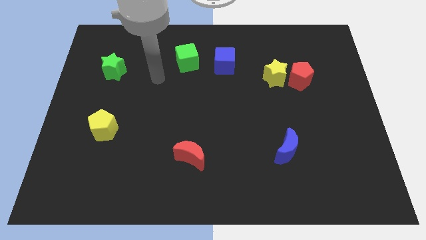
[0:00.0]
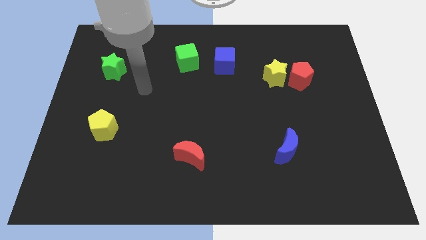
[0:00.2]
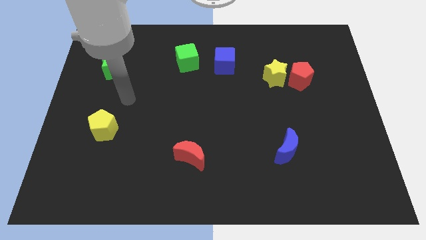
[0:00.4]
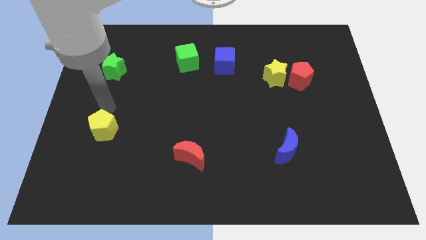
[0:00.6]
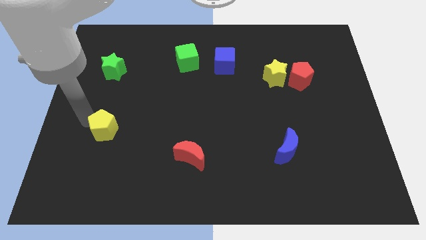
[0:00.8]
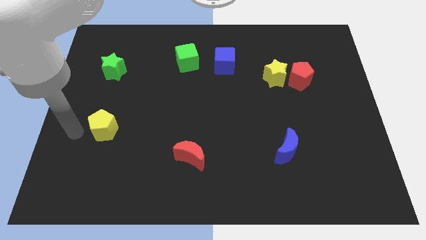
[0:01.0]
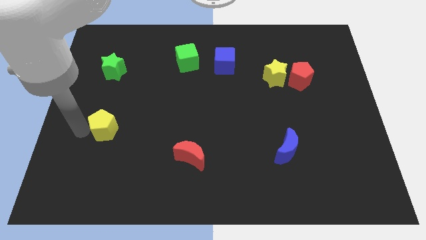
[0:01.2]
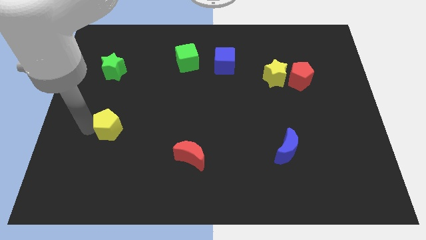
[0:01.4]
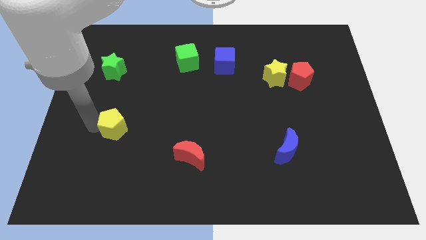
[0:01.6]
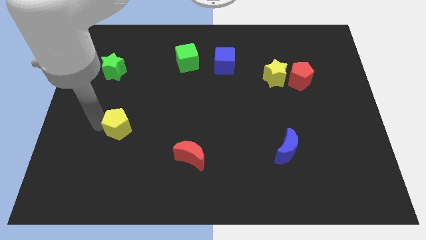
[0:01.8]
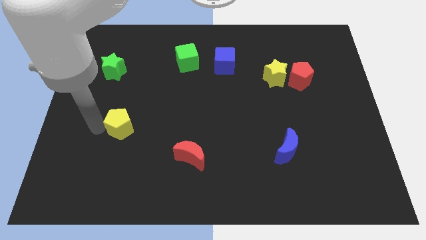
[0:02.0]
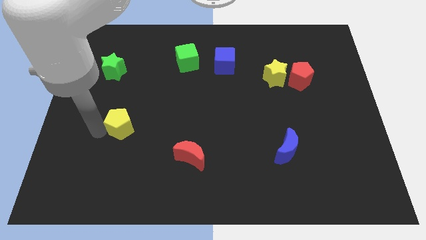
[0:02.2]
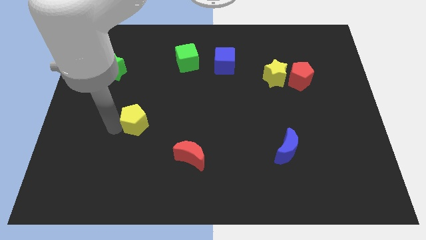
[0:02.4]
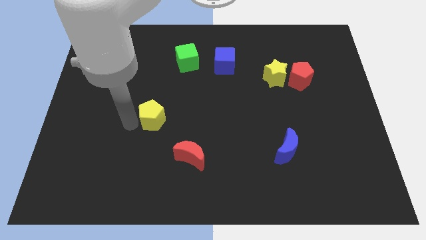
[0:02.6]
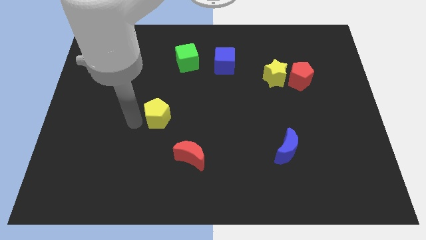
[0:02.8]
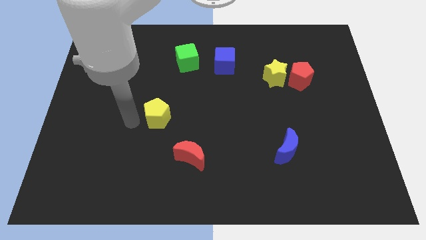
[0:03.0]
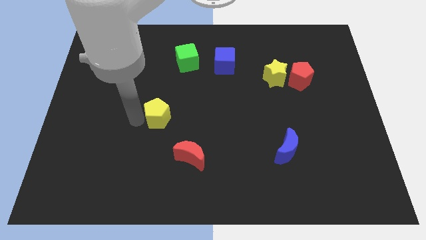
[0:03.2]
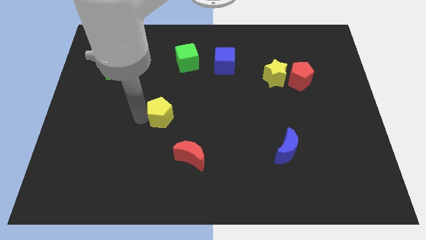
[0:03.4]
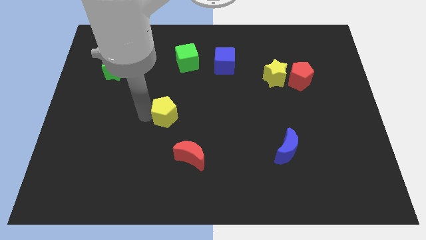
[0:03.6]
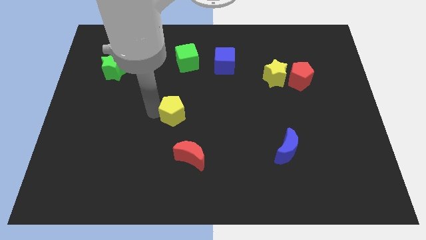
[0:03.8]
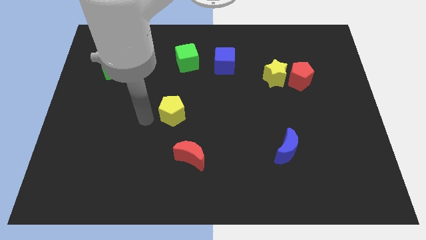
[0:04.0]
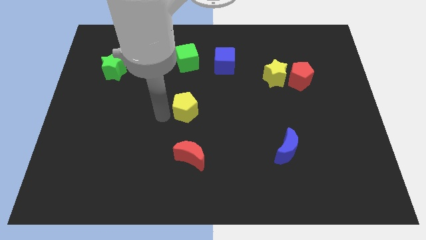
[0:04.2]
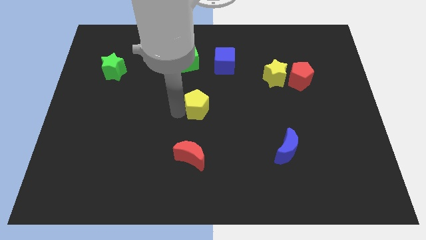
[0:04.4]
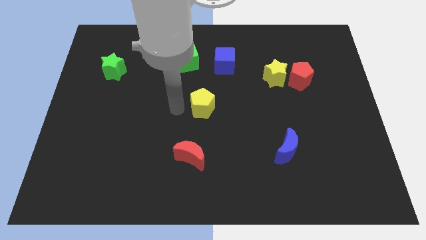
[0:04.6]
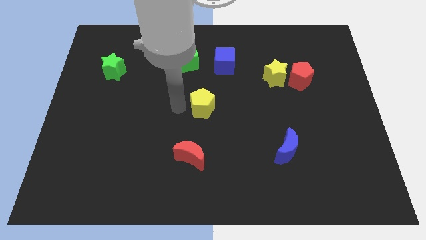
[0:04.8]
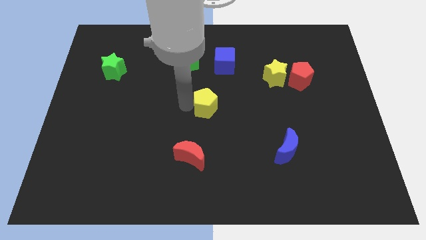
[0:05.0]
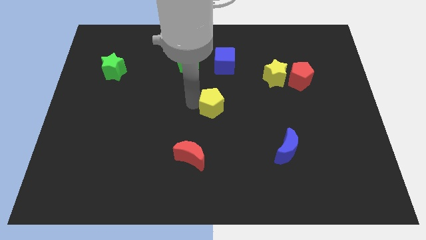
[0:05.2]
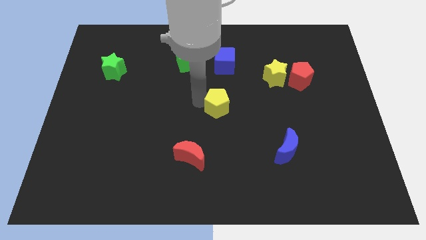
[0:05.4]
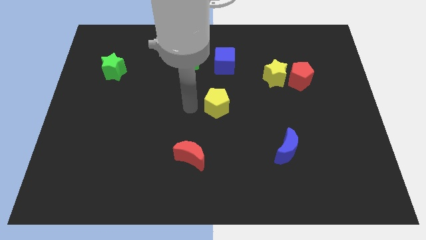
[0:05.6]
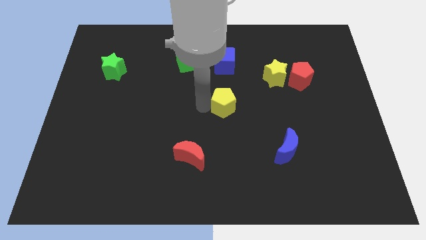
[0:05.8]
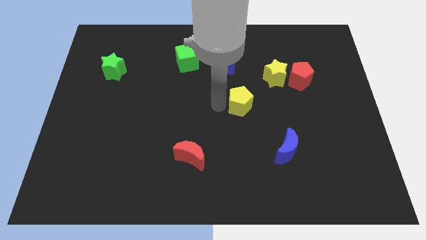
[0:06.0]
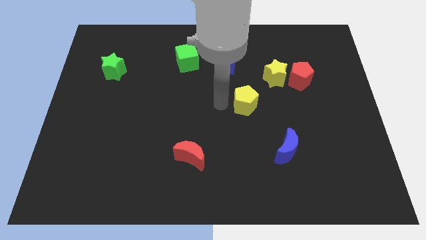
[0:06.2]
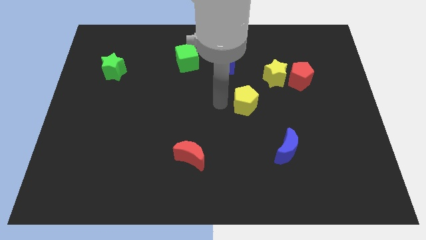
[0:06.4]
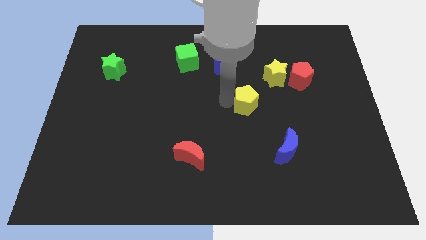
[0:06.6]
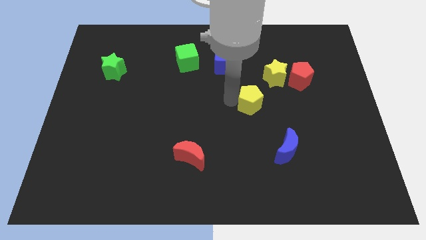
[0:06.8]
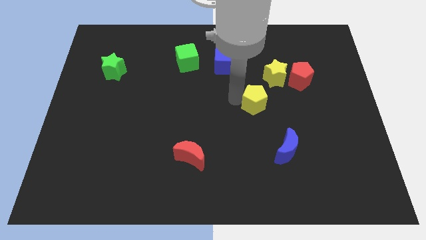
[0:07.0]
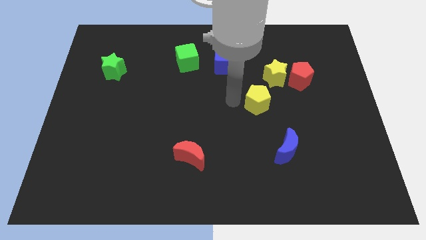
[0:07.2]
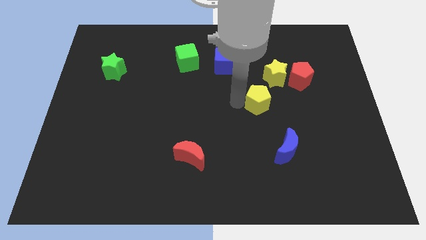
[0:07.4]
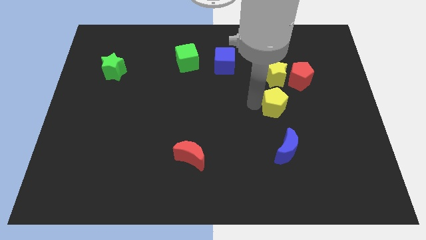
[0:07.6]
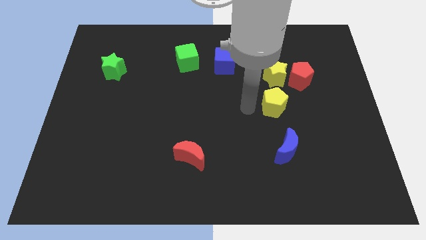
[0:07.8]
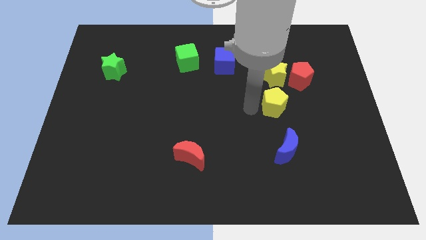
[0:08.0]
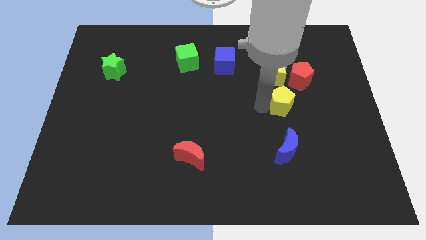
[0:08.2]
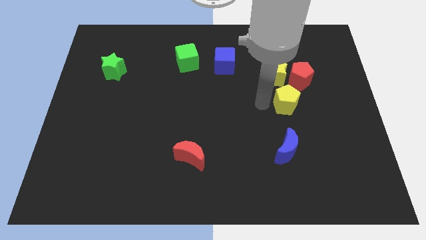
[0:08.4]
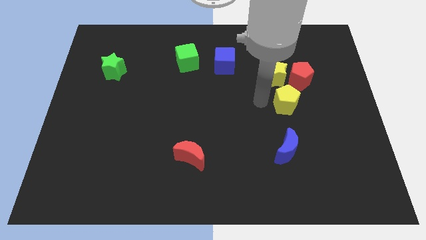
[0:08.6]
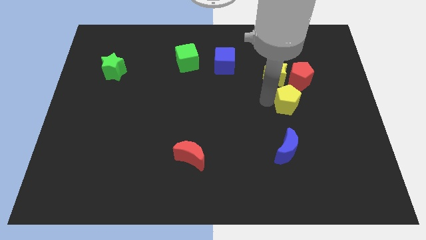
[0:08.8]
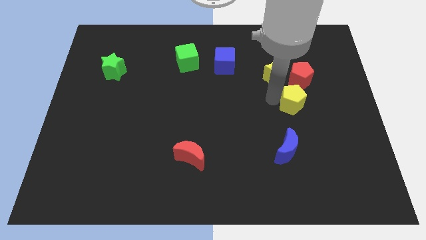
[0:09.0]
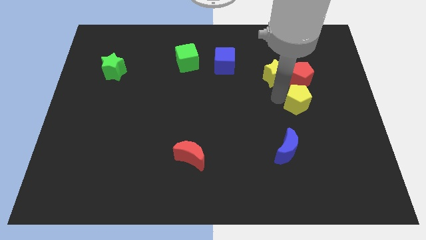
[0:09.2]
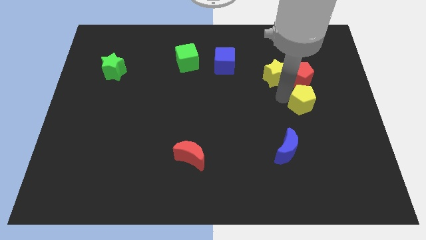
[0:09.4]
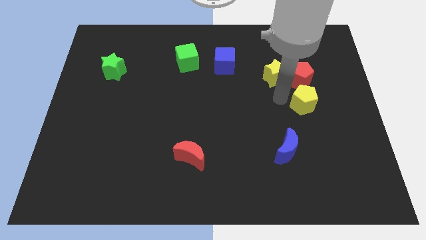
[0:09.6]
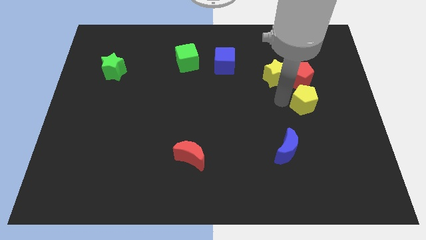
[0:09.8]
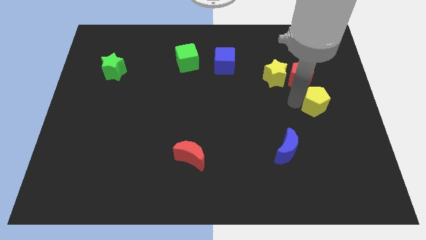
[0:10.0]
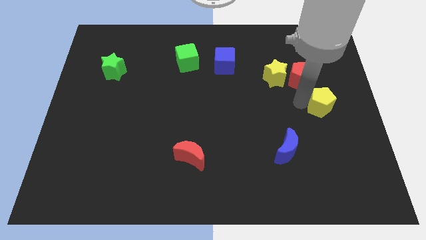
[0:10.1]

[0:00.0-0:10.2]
push the yellow pentagon to the right side

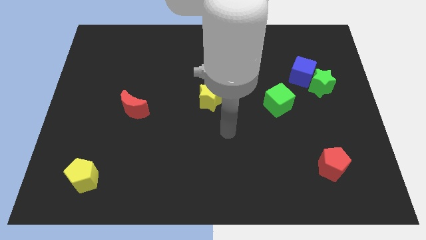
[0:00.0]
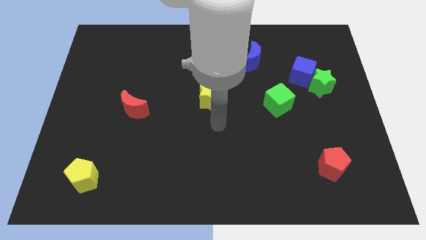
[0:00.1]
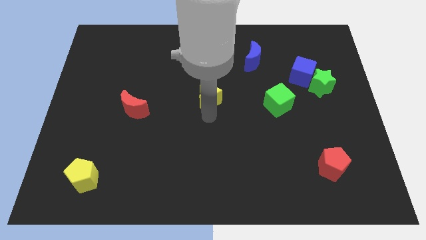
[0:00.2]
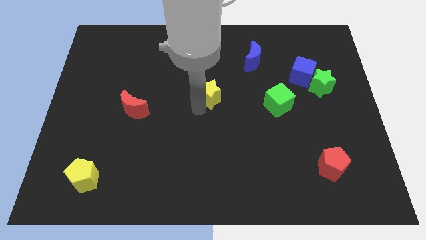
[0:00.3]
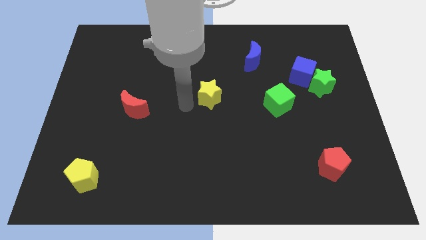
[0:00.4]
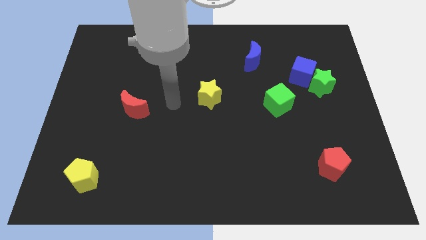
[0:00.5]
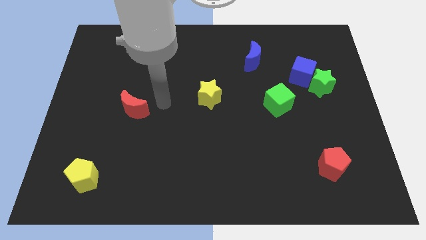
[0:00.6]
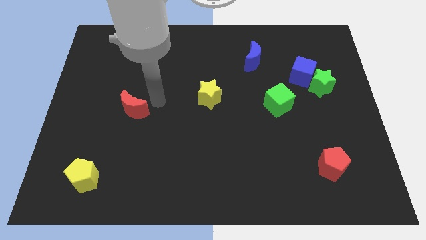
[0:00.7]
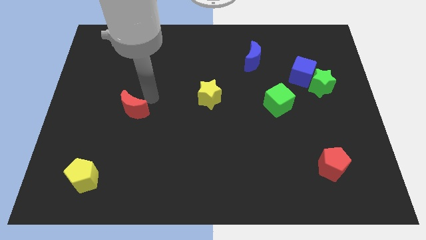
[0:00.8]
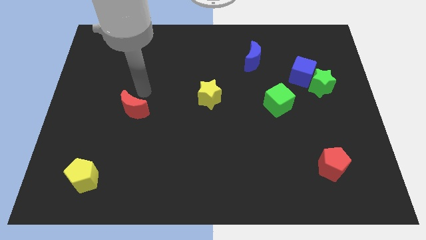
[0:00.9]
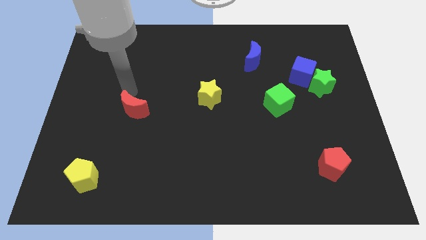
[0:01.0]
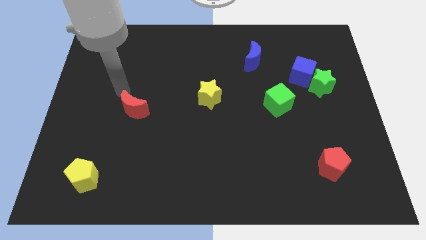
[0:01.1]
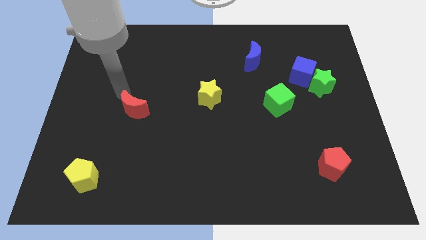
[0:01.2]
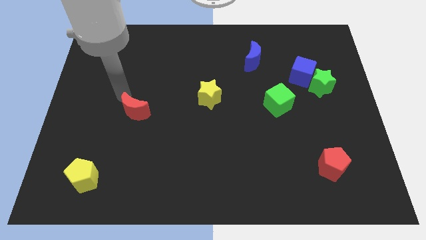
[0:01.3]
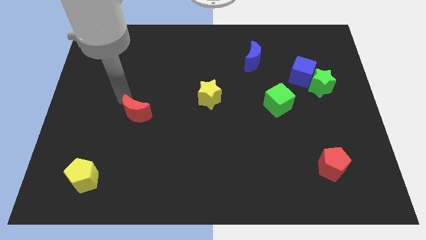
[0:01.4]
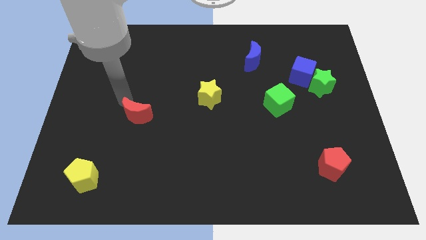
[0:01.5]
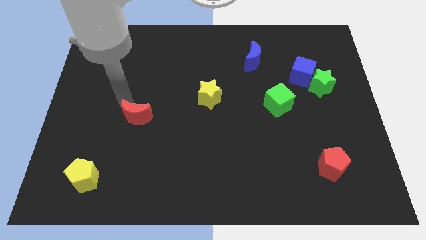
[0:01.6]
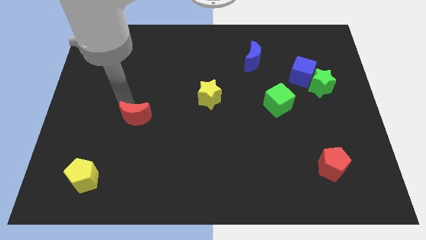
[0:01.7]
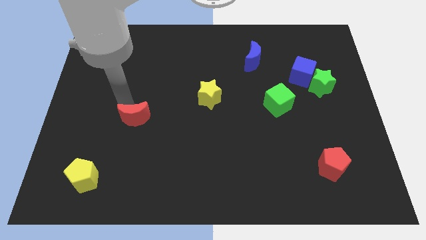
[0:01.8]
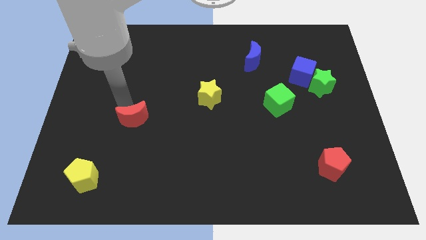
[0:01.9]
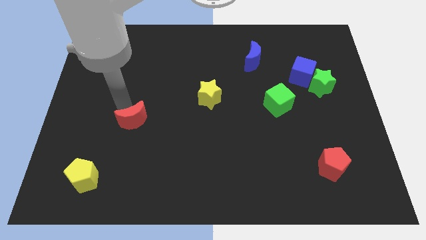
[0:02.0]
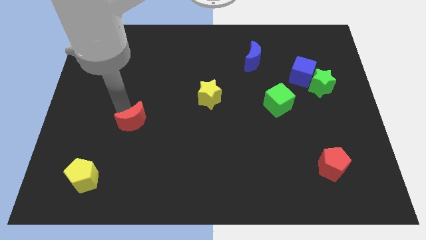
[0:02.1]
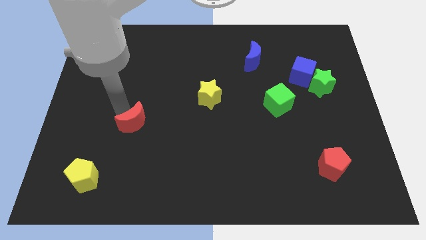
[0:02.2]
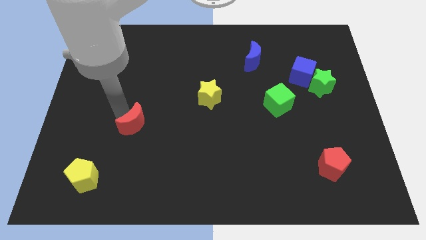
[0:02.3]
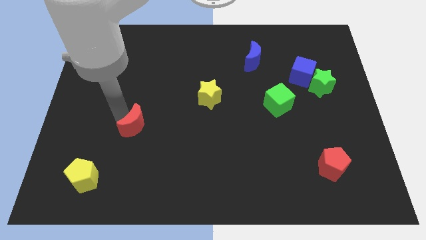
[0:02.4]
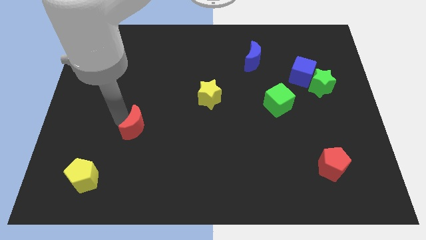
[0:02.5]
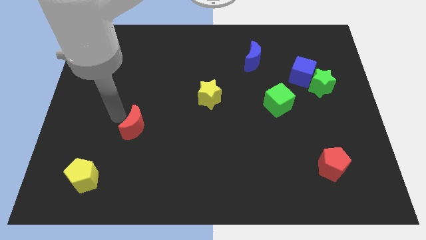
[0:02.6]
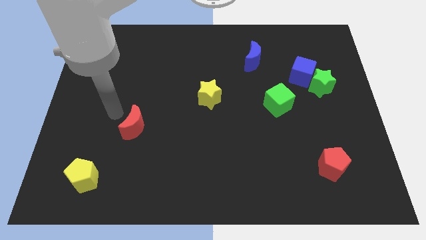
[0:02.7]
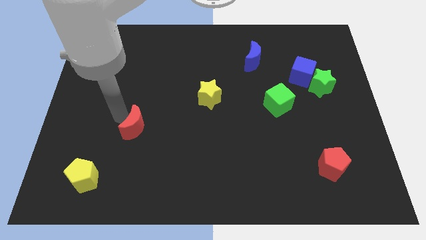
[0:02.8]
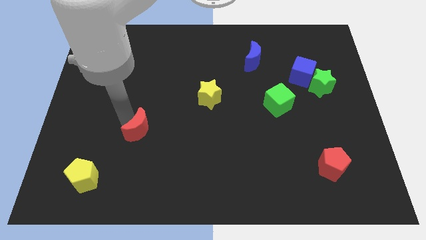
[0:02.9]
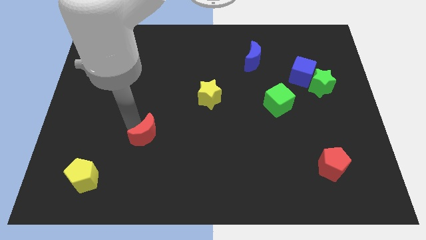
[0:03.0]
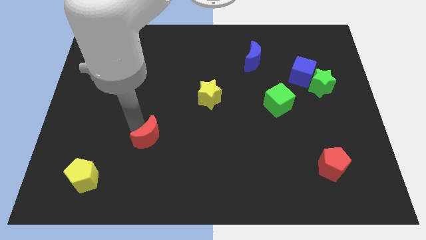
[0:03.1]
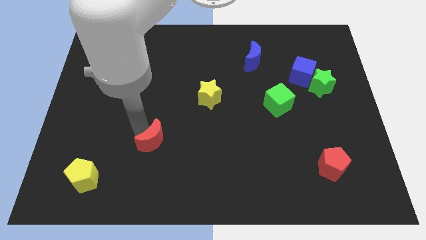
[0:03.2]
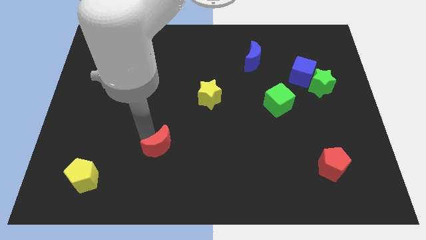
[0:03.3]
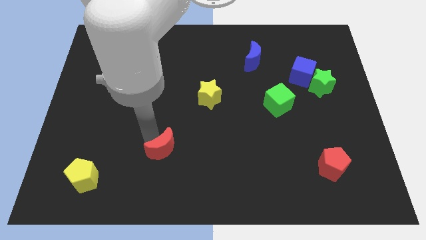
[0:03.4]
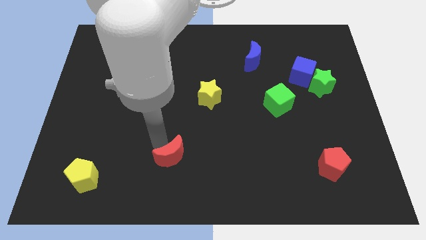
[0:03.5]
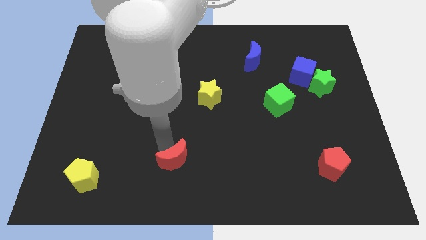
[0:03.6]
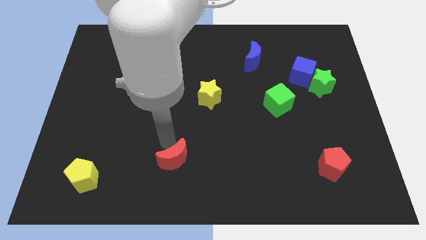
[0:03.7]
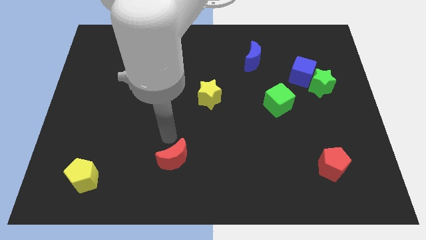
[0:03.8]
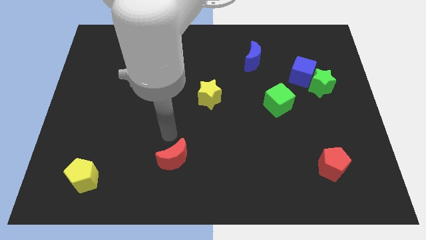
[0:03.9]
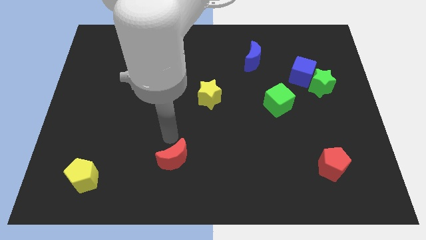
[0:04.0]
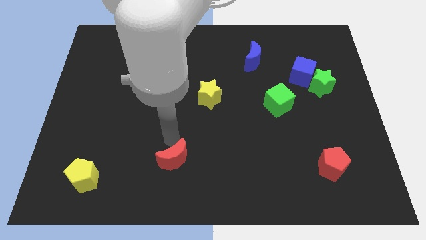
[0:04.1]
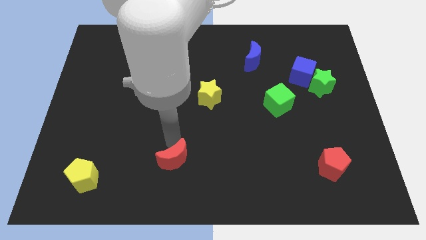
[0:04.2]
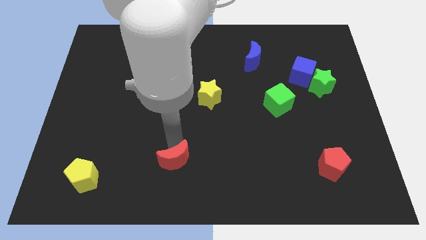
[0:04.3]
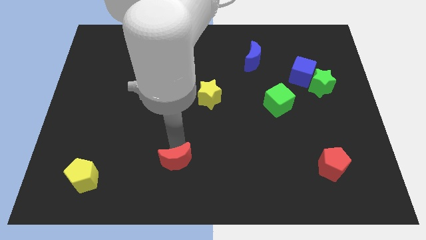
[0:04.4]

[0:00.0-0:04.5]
put the red moon to the bottom
